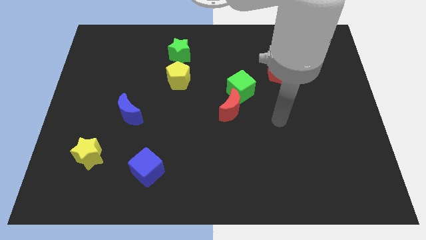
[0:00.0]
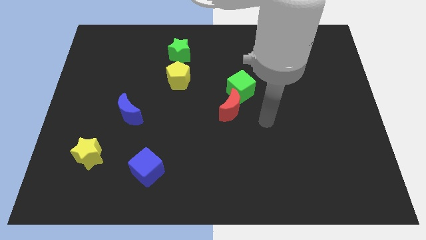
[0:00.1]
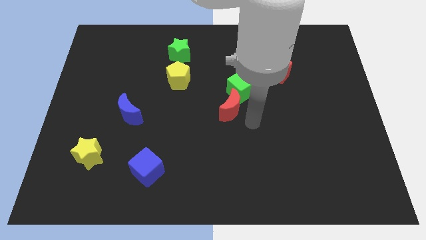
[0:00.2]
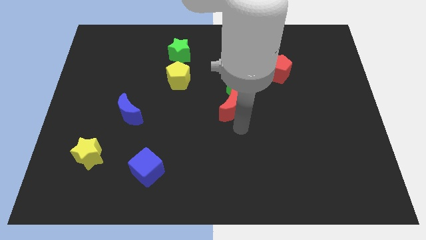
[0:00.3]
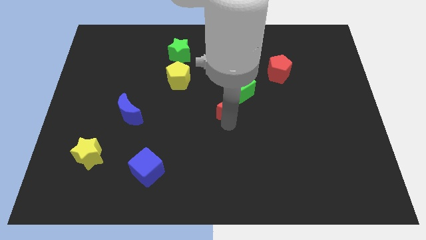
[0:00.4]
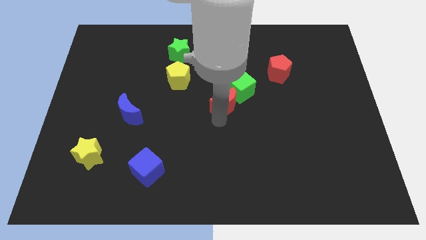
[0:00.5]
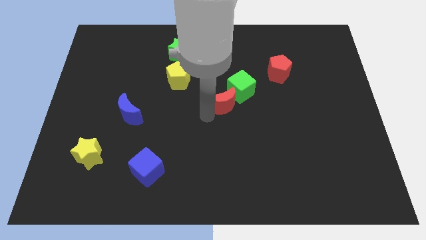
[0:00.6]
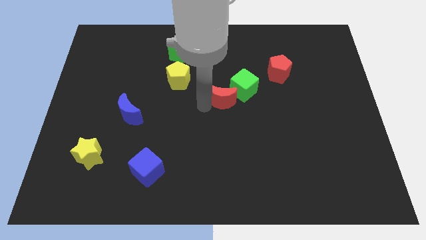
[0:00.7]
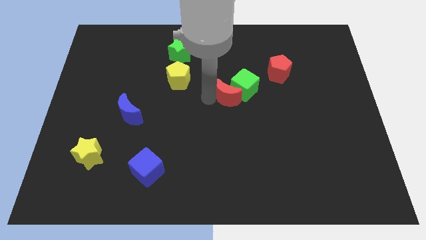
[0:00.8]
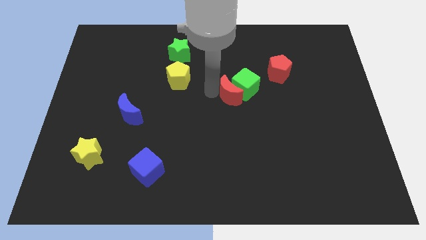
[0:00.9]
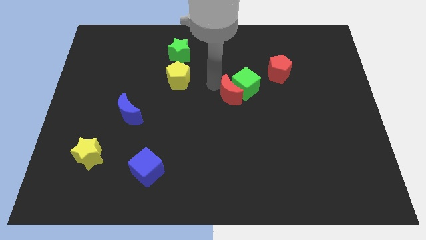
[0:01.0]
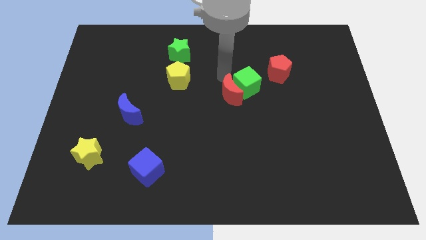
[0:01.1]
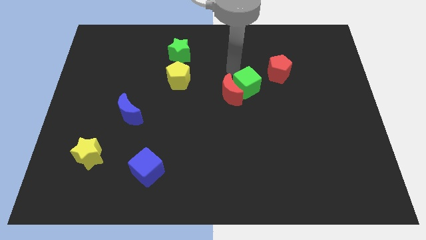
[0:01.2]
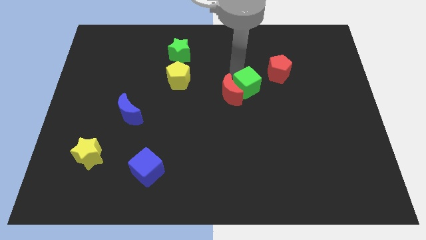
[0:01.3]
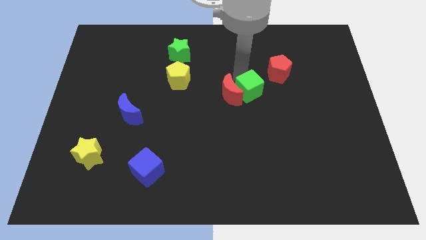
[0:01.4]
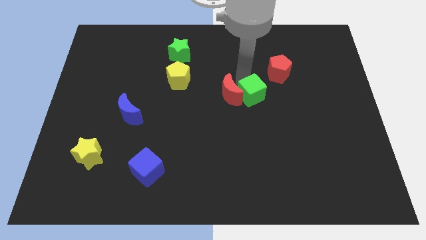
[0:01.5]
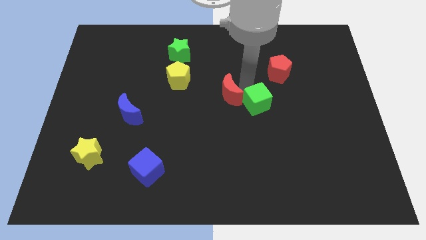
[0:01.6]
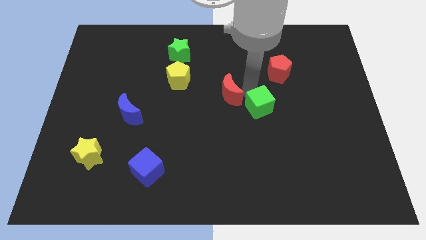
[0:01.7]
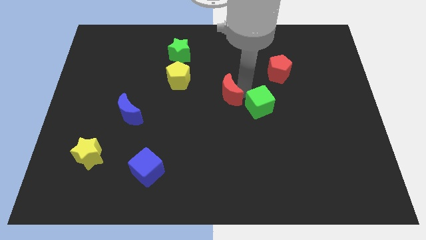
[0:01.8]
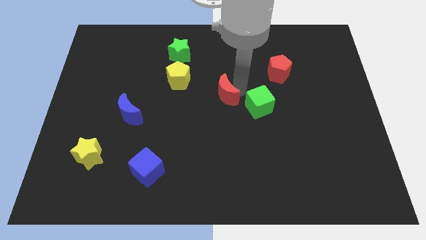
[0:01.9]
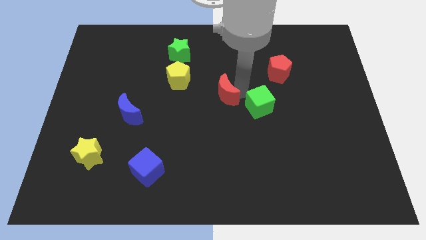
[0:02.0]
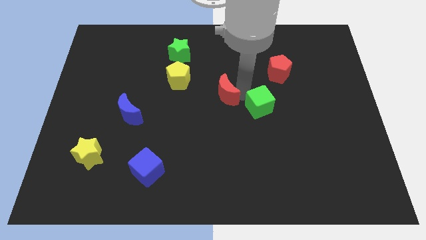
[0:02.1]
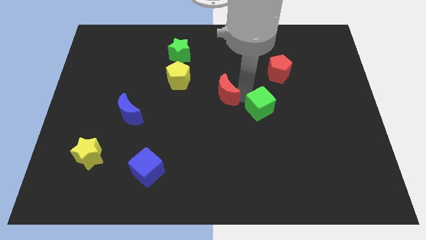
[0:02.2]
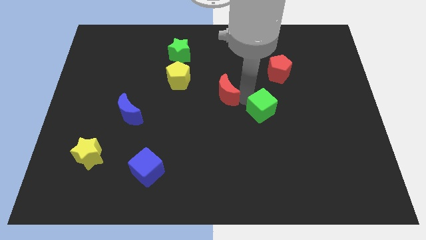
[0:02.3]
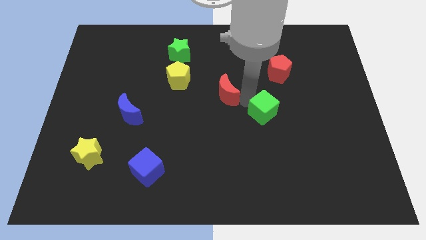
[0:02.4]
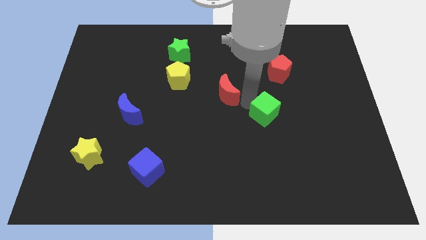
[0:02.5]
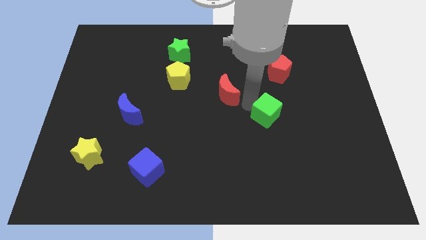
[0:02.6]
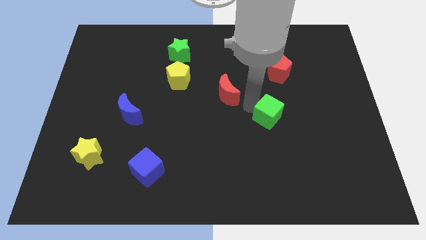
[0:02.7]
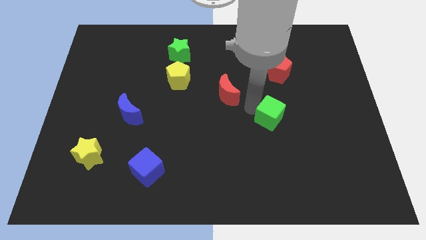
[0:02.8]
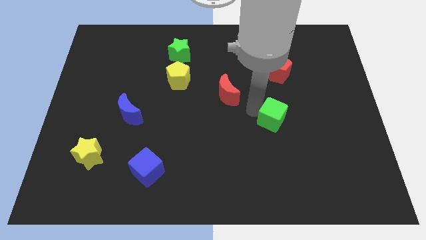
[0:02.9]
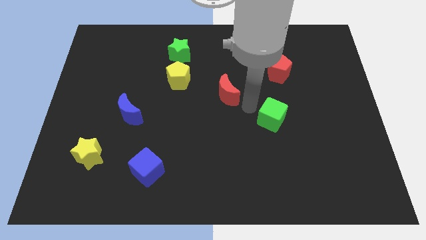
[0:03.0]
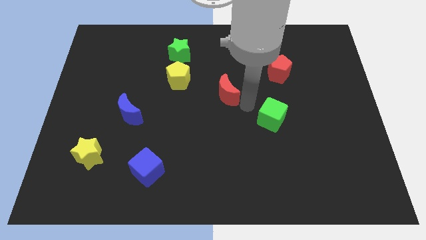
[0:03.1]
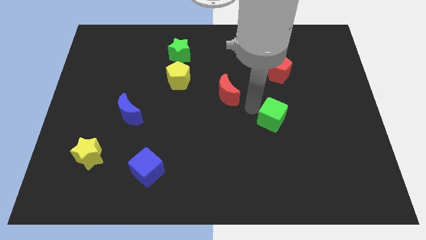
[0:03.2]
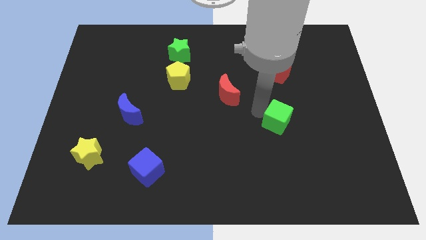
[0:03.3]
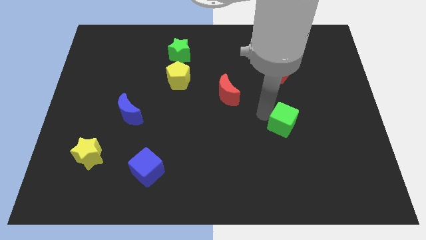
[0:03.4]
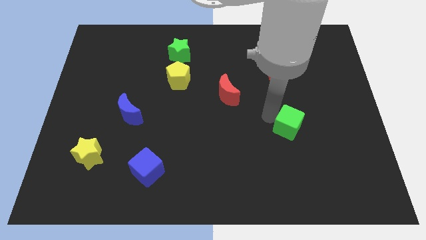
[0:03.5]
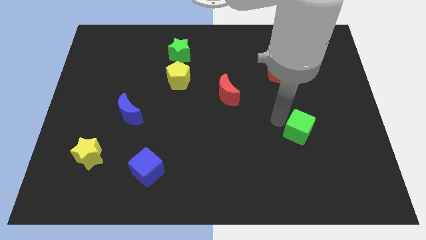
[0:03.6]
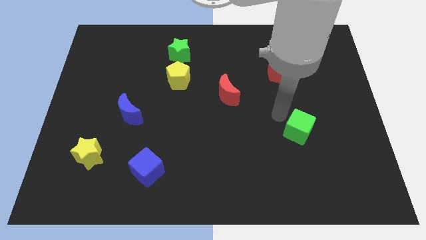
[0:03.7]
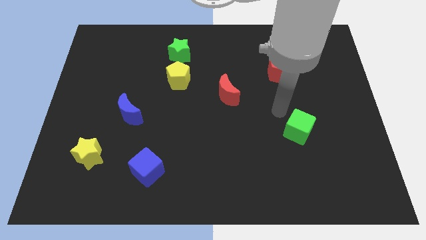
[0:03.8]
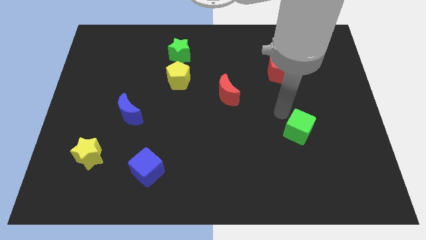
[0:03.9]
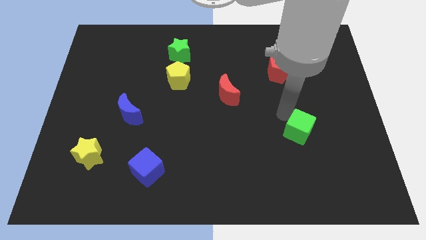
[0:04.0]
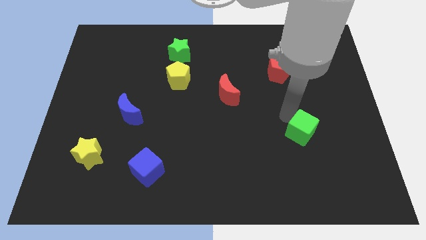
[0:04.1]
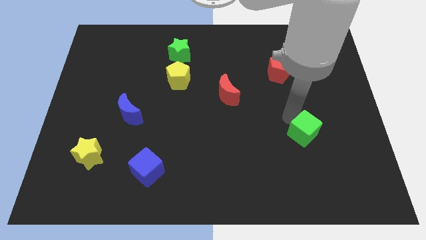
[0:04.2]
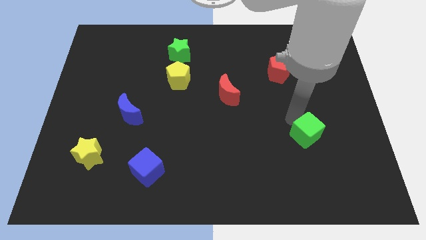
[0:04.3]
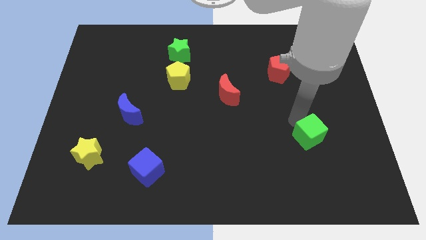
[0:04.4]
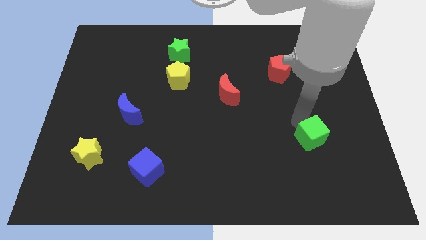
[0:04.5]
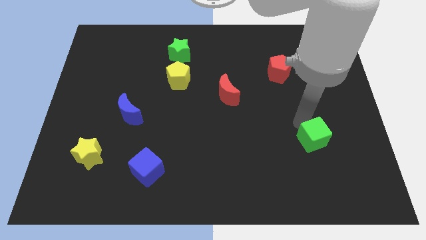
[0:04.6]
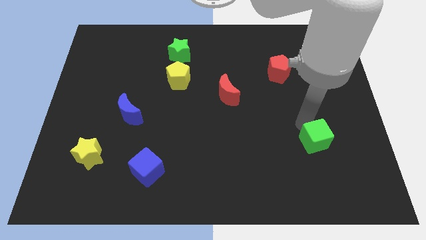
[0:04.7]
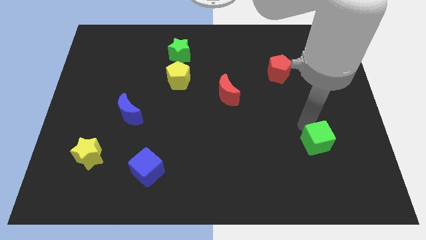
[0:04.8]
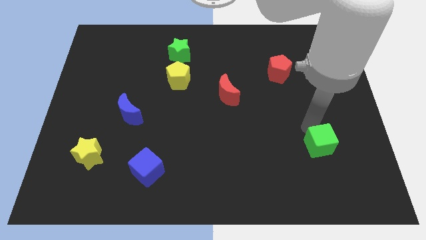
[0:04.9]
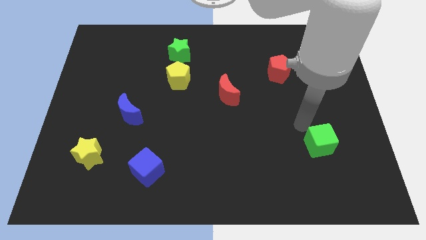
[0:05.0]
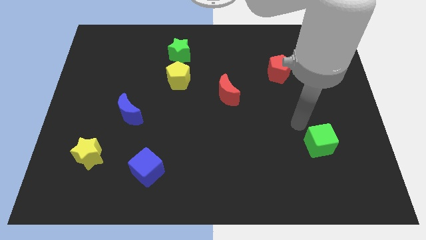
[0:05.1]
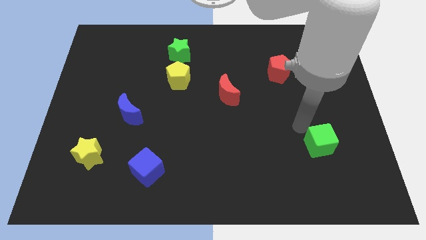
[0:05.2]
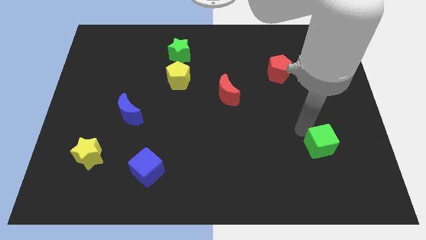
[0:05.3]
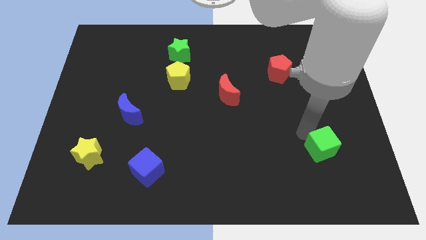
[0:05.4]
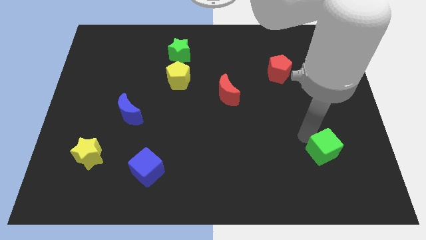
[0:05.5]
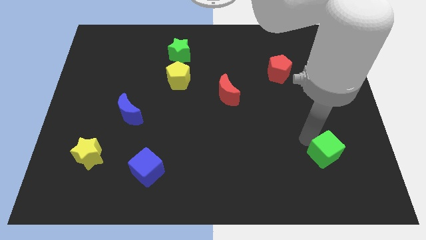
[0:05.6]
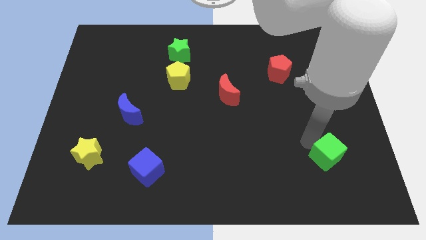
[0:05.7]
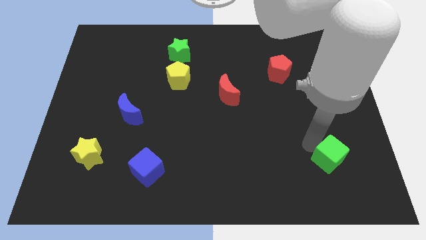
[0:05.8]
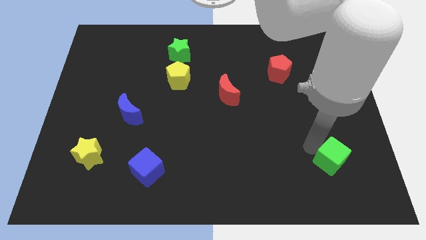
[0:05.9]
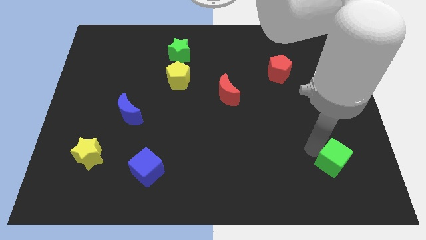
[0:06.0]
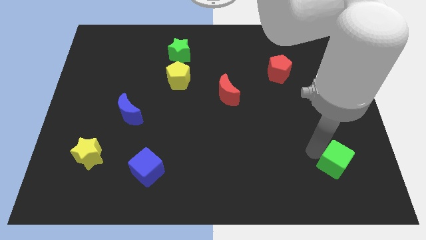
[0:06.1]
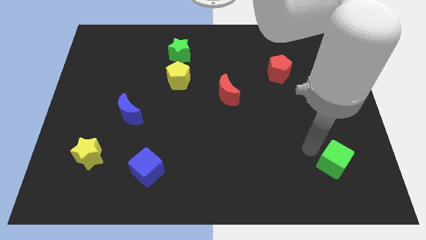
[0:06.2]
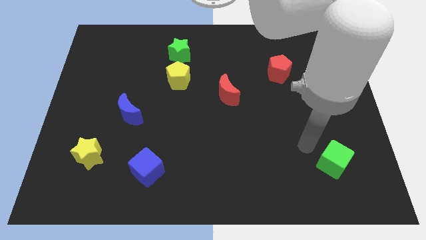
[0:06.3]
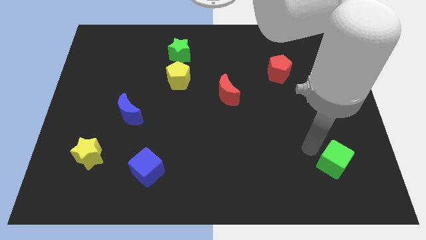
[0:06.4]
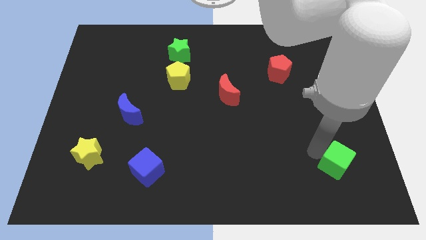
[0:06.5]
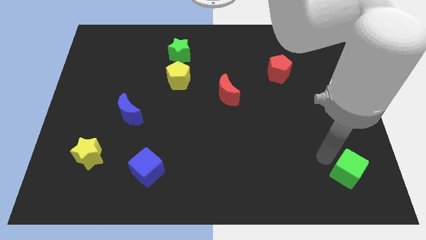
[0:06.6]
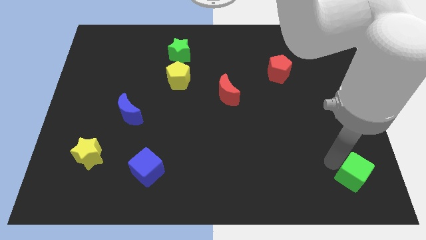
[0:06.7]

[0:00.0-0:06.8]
push the green cube to the bottom right
